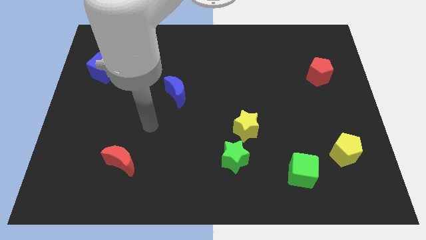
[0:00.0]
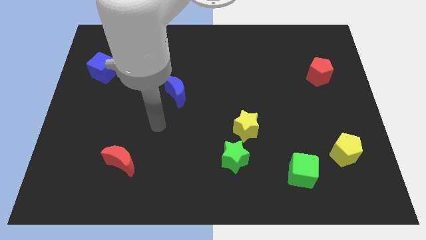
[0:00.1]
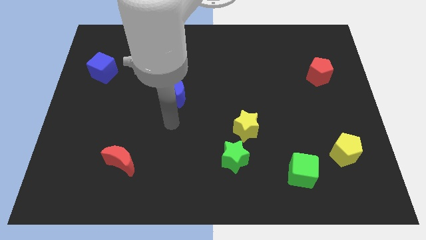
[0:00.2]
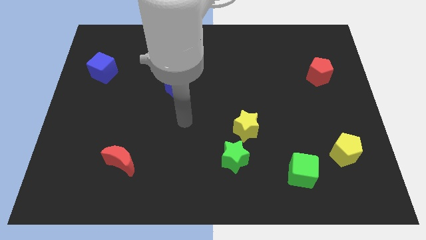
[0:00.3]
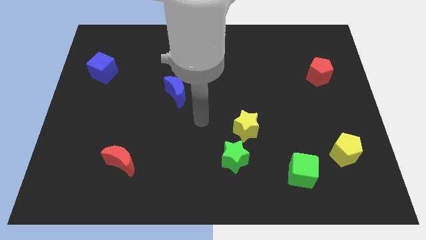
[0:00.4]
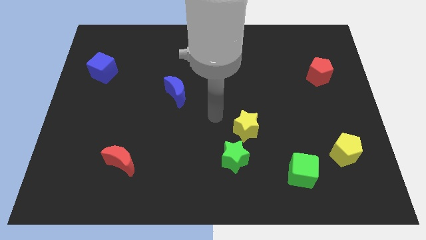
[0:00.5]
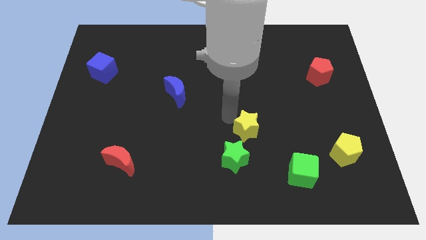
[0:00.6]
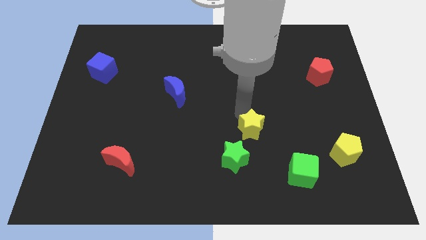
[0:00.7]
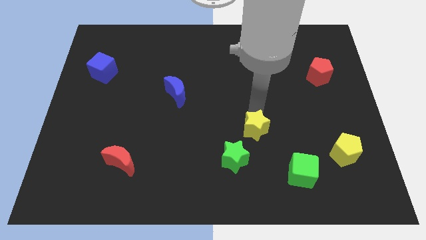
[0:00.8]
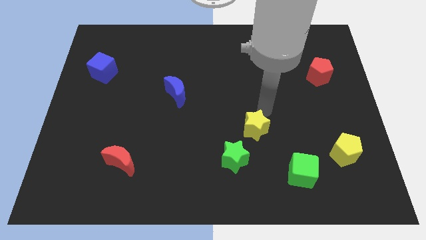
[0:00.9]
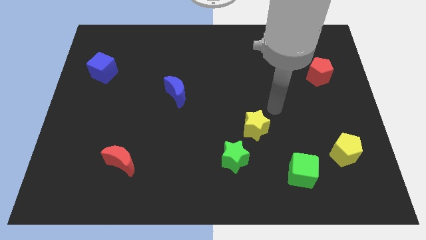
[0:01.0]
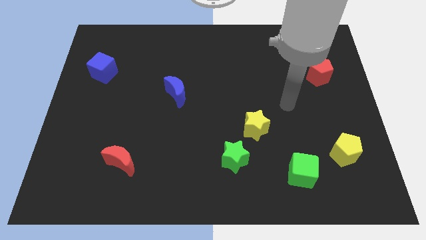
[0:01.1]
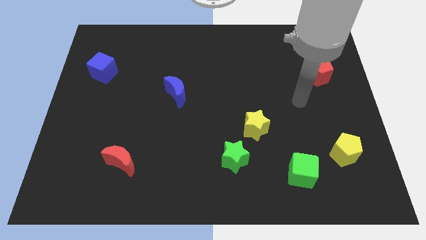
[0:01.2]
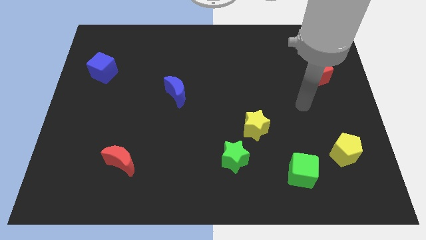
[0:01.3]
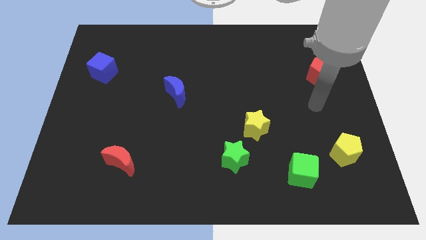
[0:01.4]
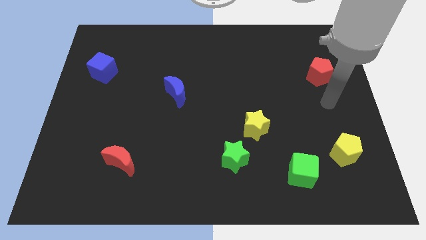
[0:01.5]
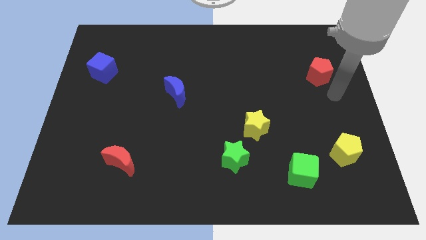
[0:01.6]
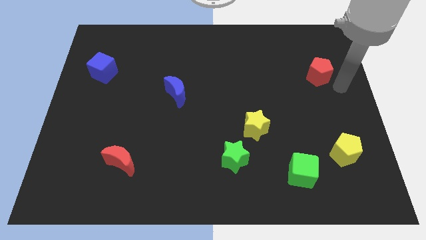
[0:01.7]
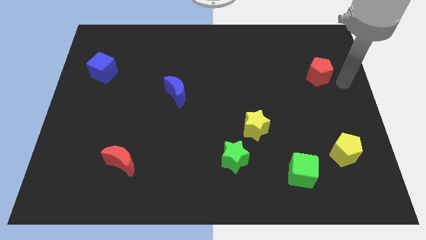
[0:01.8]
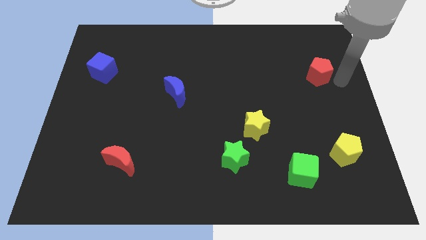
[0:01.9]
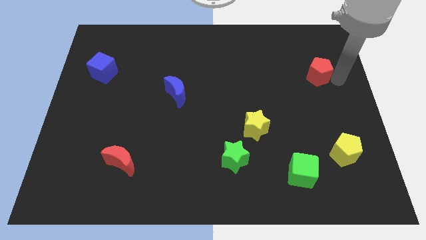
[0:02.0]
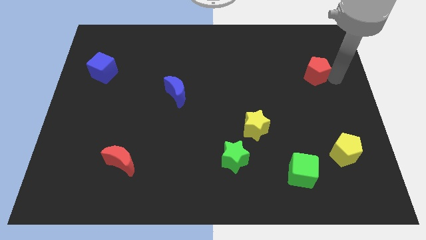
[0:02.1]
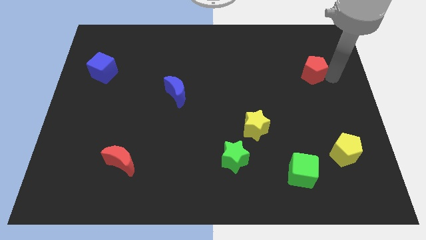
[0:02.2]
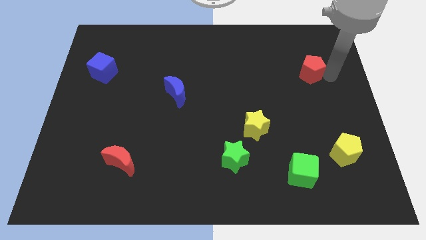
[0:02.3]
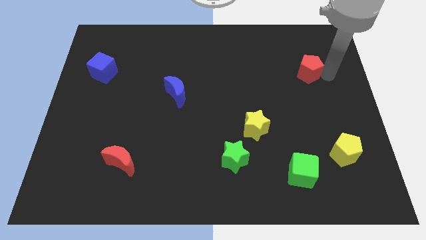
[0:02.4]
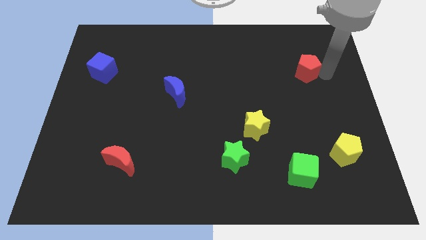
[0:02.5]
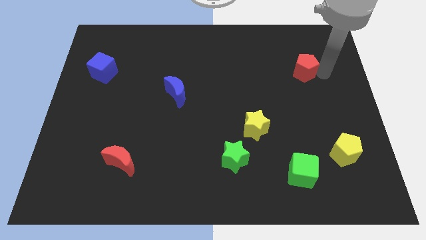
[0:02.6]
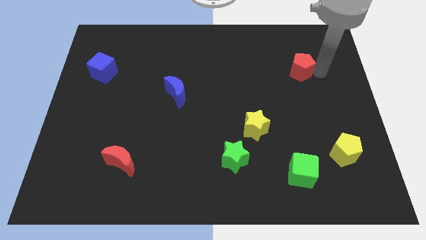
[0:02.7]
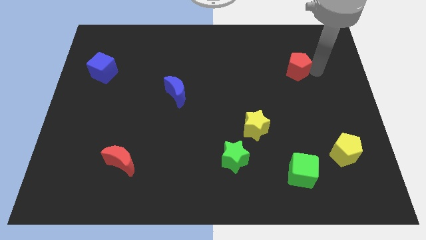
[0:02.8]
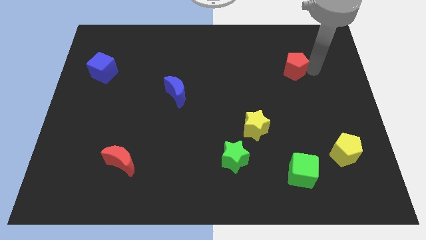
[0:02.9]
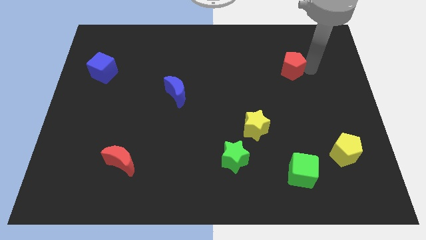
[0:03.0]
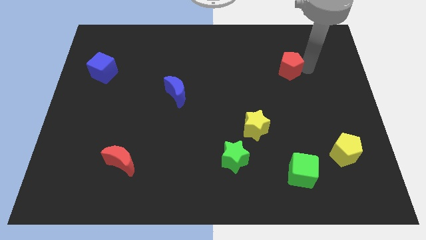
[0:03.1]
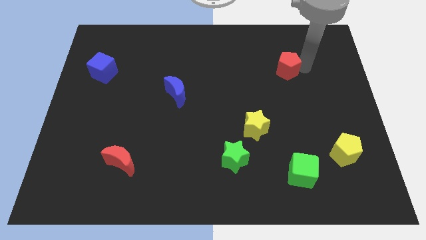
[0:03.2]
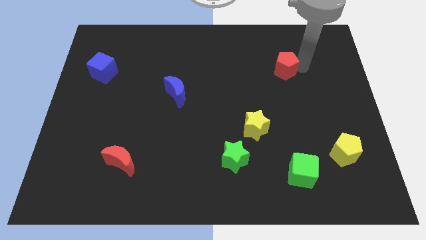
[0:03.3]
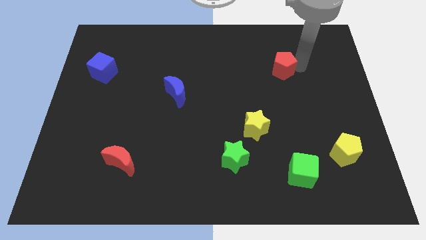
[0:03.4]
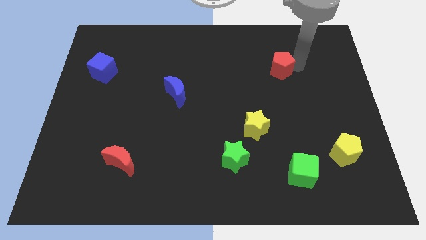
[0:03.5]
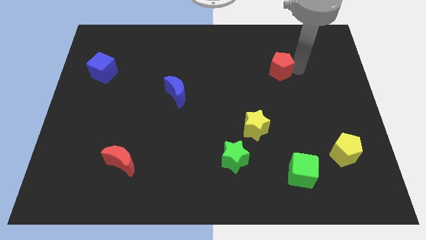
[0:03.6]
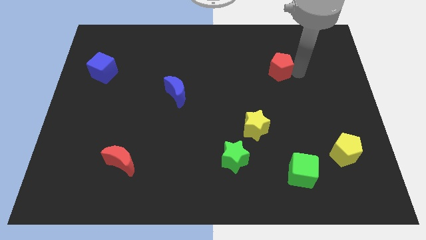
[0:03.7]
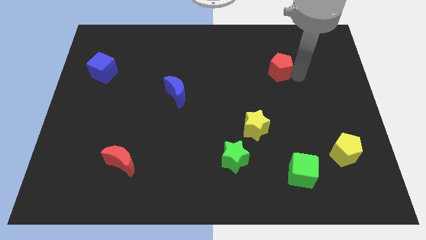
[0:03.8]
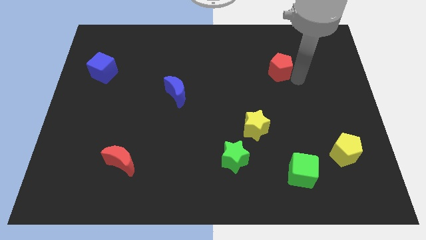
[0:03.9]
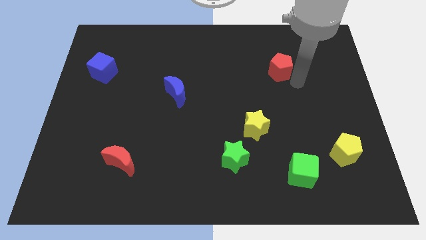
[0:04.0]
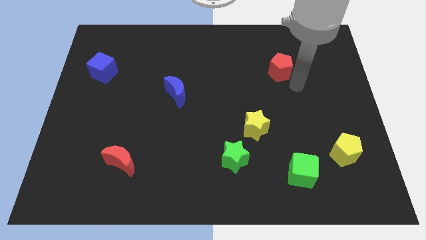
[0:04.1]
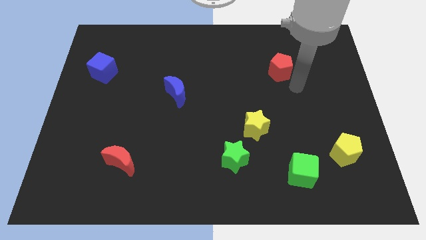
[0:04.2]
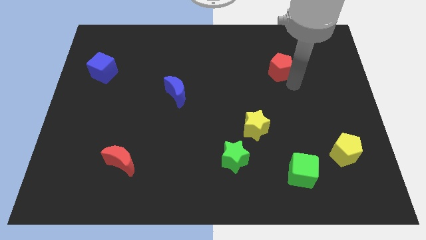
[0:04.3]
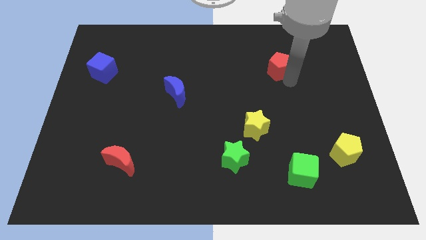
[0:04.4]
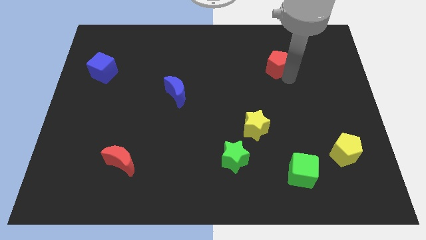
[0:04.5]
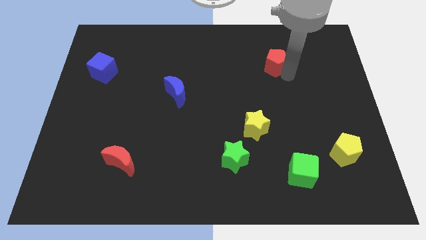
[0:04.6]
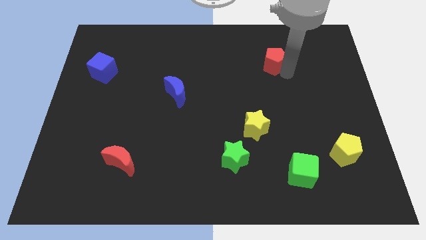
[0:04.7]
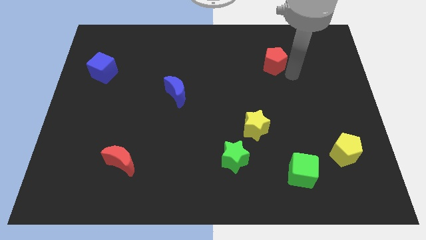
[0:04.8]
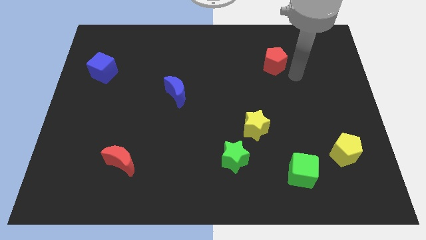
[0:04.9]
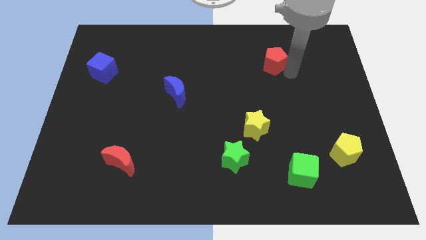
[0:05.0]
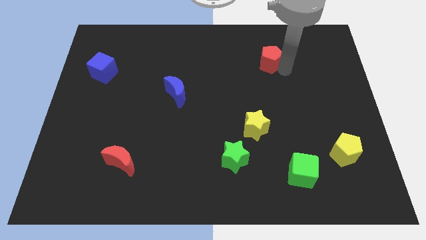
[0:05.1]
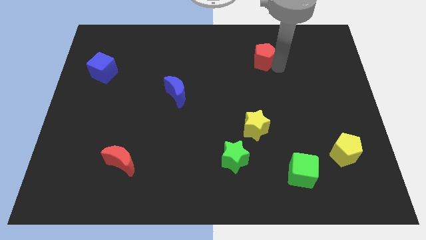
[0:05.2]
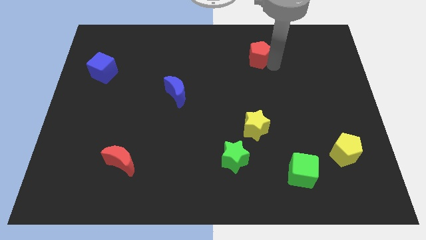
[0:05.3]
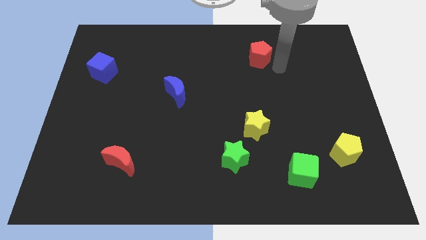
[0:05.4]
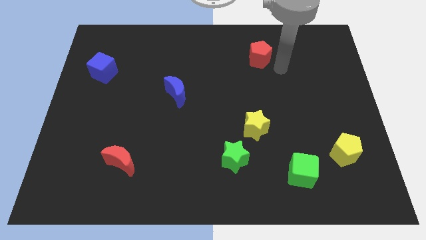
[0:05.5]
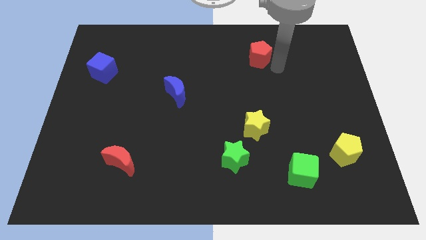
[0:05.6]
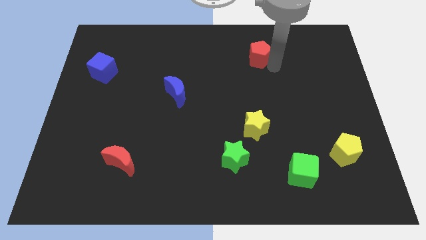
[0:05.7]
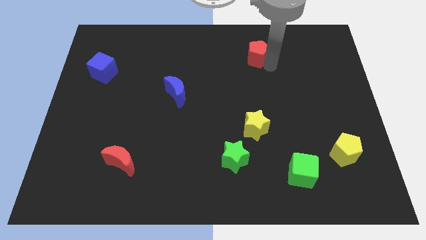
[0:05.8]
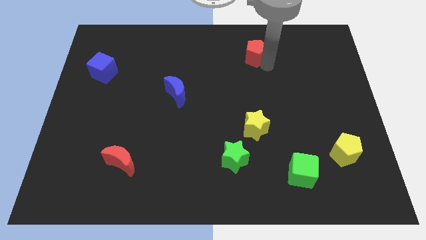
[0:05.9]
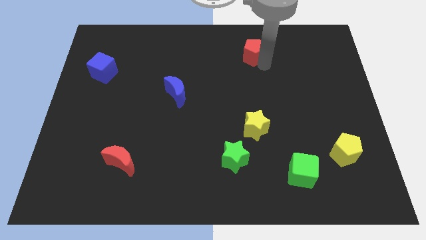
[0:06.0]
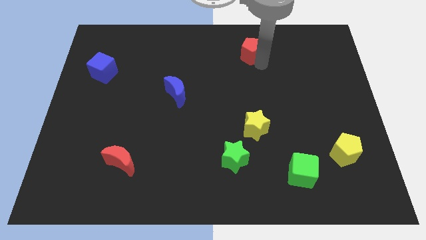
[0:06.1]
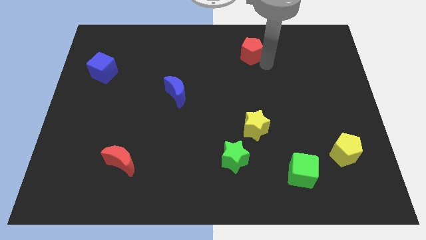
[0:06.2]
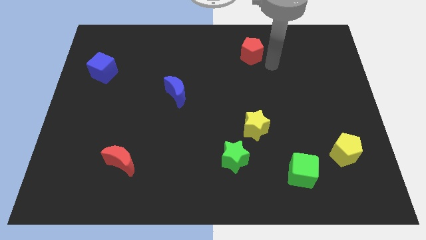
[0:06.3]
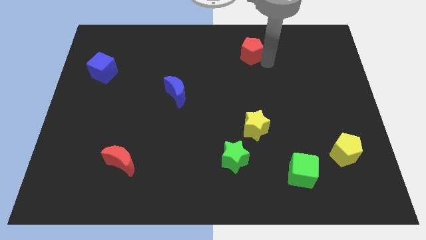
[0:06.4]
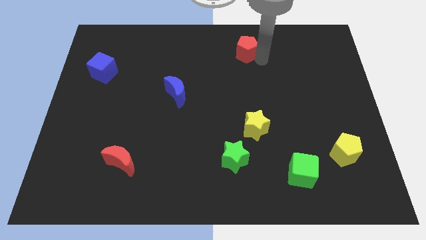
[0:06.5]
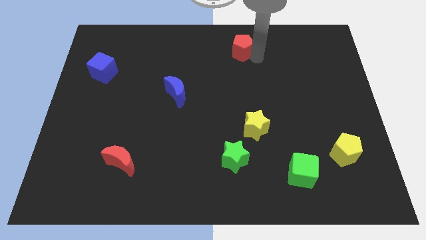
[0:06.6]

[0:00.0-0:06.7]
slide the red pentagon to the top side
